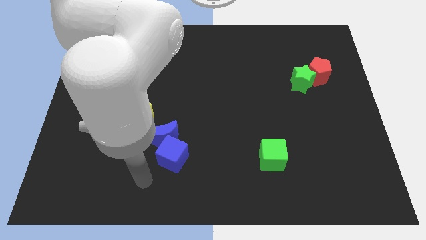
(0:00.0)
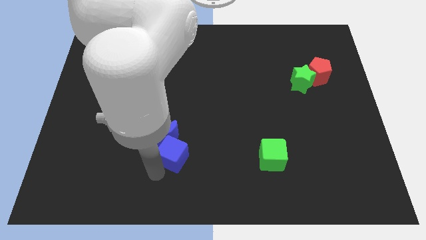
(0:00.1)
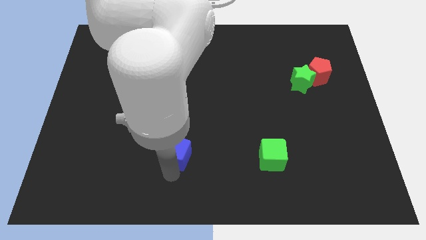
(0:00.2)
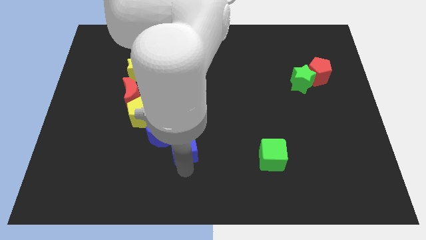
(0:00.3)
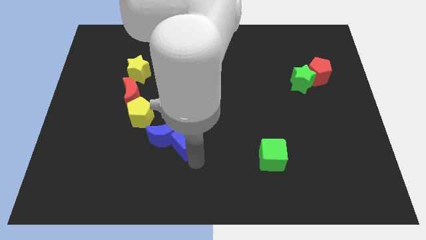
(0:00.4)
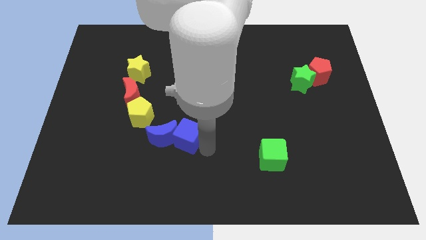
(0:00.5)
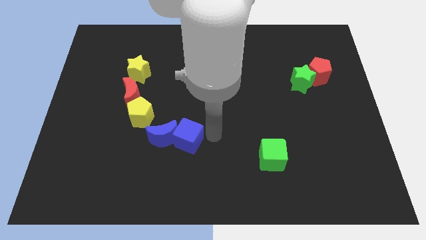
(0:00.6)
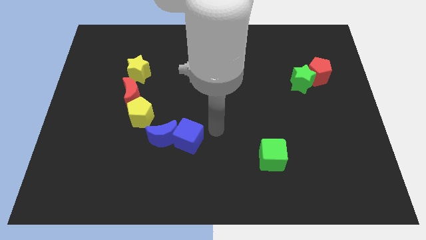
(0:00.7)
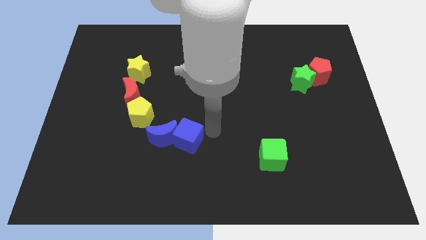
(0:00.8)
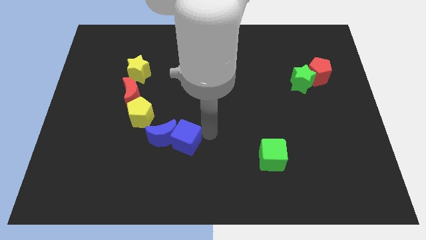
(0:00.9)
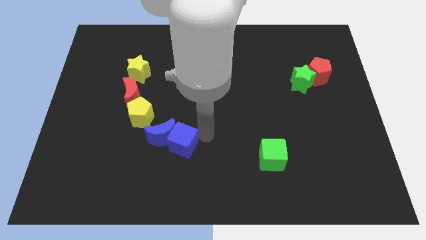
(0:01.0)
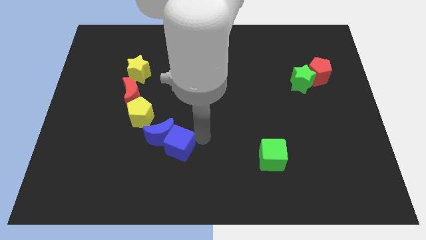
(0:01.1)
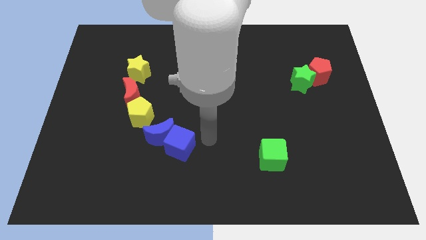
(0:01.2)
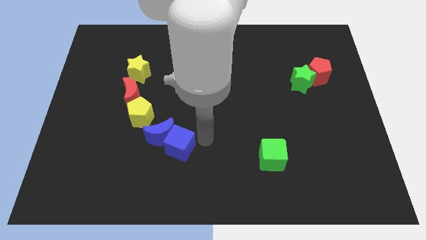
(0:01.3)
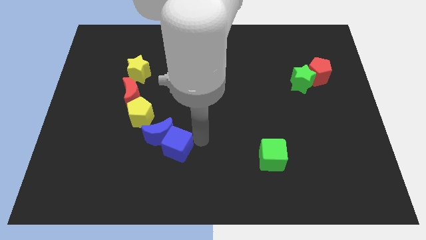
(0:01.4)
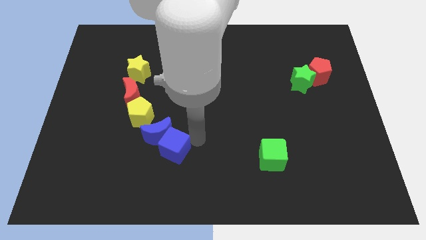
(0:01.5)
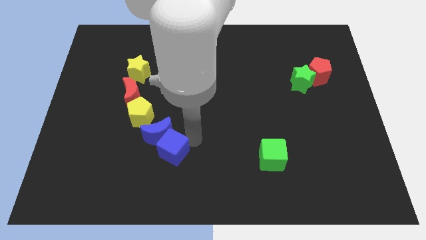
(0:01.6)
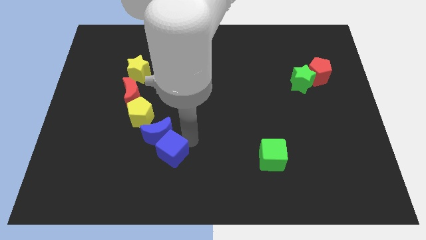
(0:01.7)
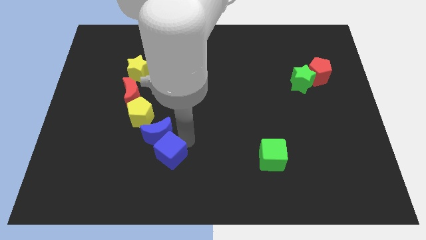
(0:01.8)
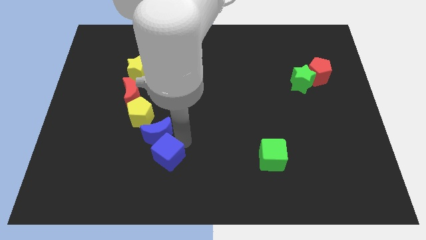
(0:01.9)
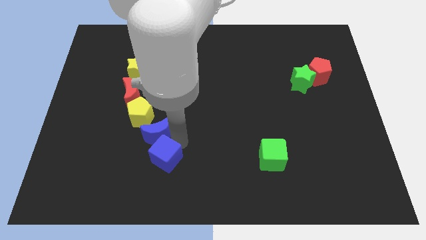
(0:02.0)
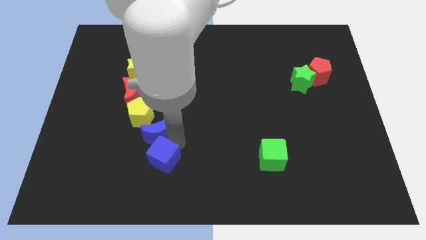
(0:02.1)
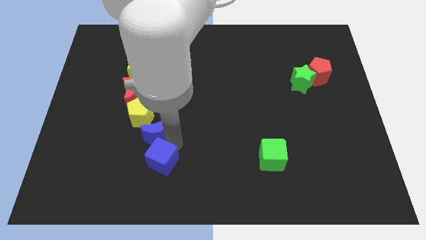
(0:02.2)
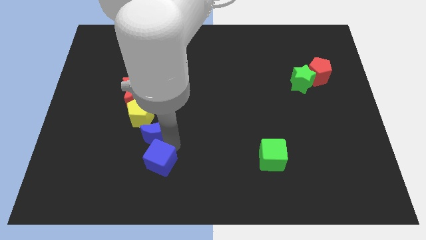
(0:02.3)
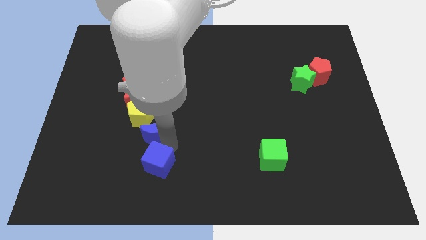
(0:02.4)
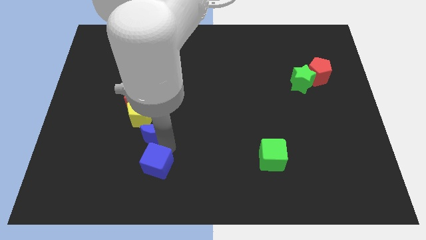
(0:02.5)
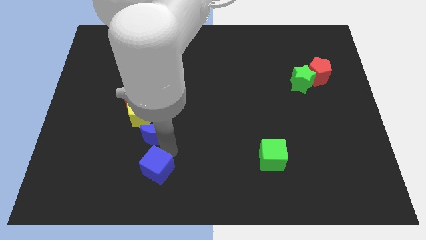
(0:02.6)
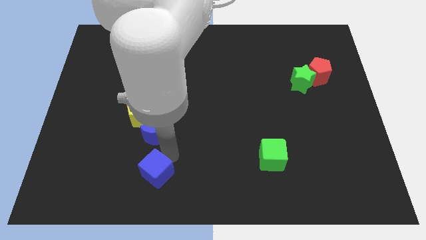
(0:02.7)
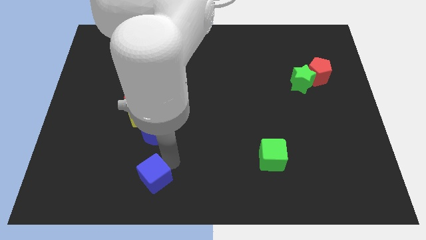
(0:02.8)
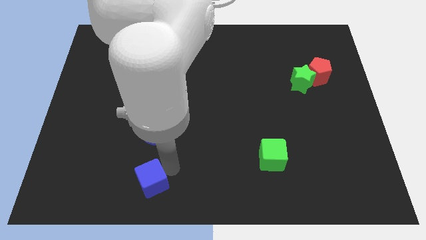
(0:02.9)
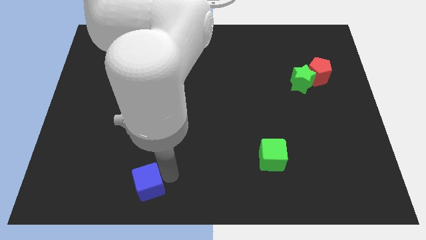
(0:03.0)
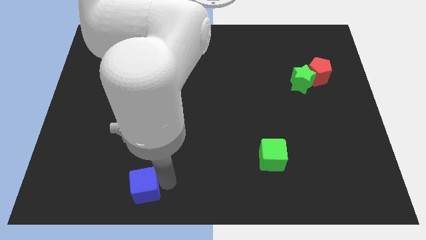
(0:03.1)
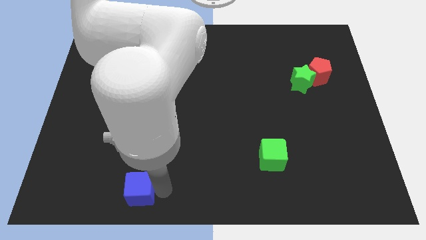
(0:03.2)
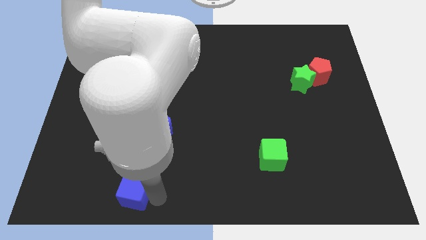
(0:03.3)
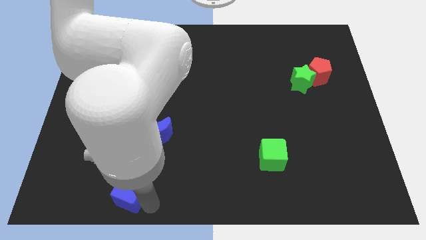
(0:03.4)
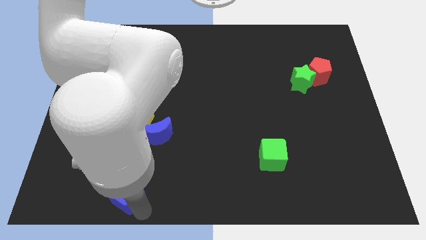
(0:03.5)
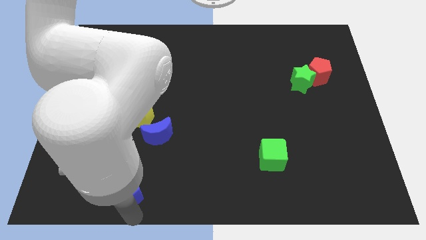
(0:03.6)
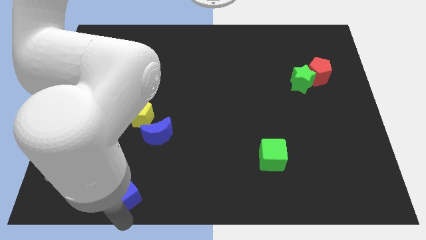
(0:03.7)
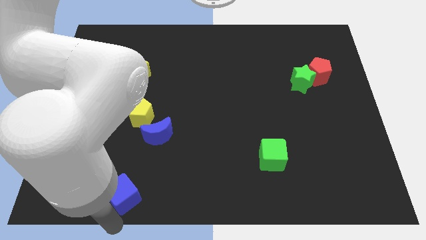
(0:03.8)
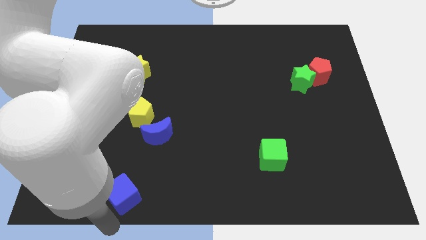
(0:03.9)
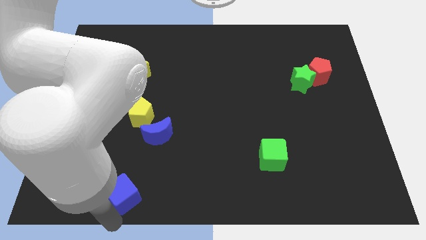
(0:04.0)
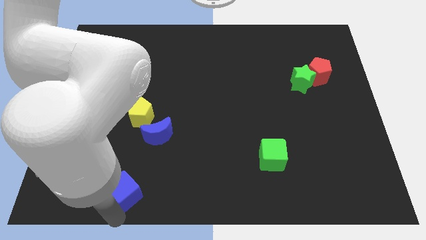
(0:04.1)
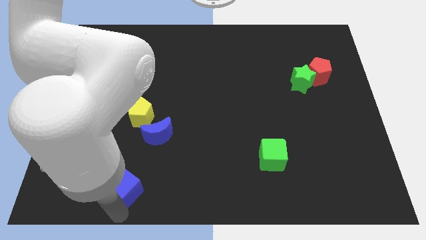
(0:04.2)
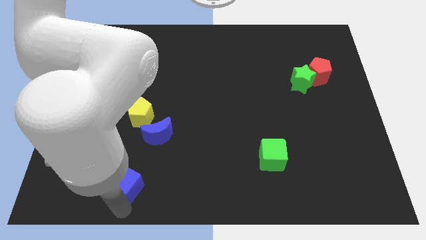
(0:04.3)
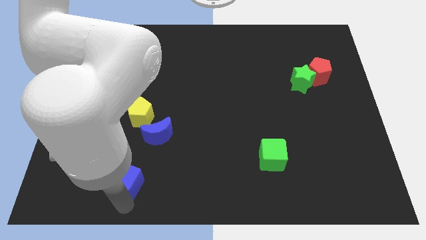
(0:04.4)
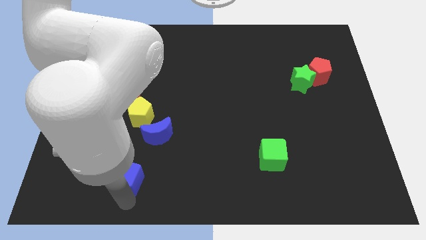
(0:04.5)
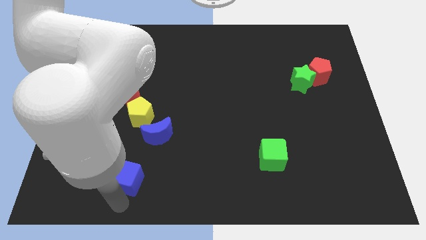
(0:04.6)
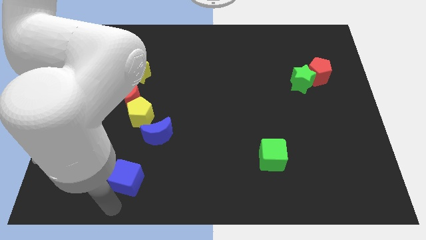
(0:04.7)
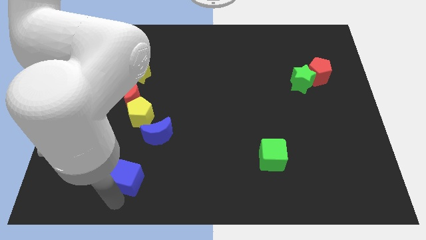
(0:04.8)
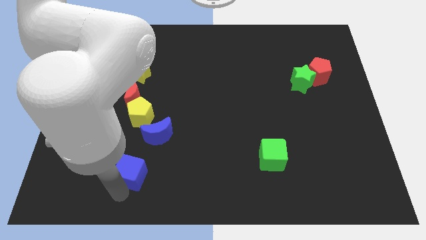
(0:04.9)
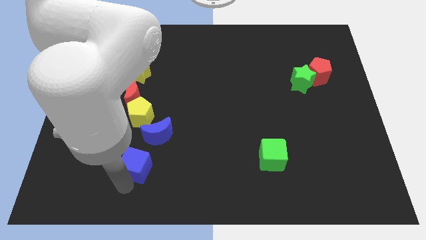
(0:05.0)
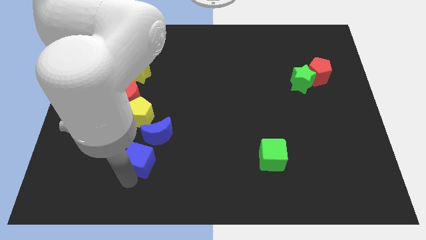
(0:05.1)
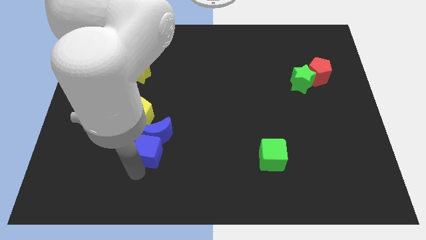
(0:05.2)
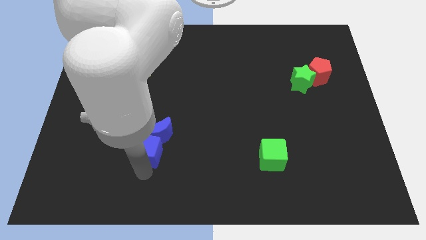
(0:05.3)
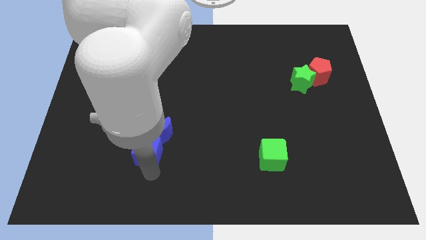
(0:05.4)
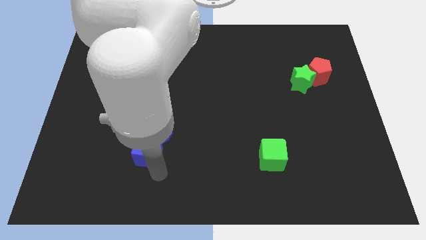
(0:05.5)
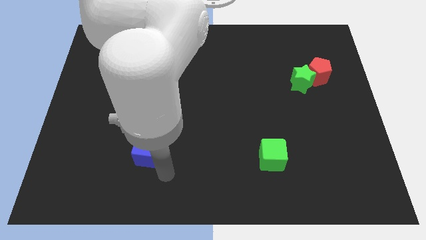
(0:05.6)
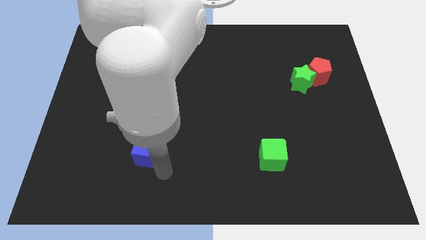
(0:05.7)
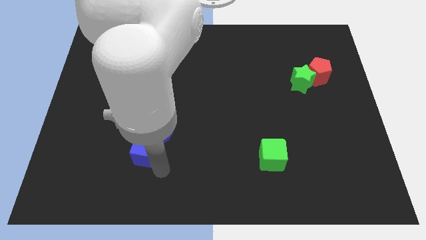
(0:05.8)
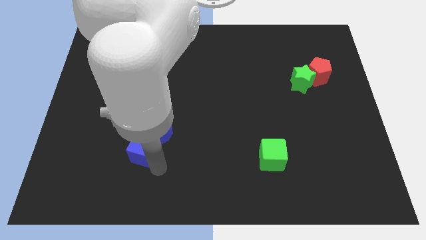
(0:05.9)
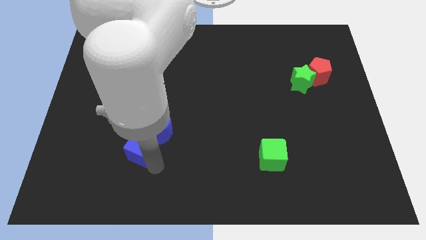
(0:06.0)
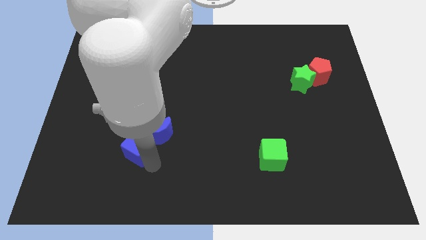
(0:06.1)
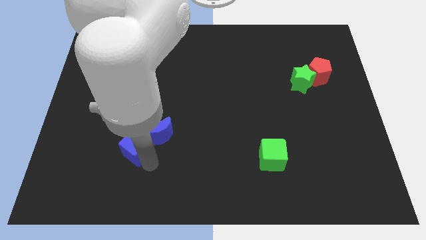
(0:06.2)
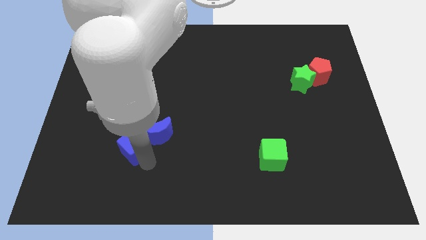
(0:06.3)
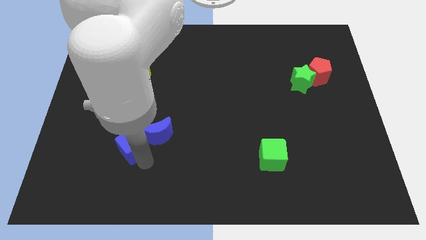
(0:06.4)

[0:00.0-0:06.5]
move the blue cube upwards and left diagonally a bit

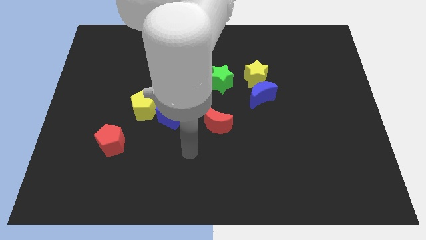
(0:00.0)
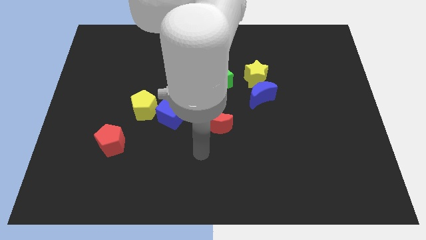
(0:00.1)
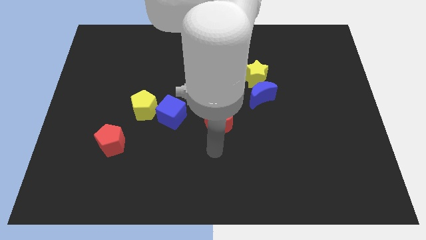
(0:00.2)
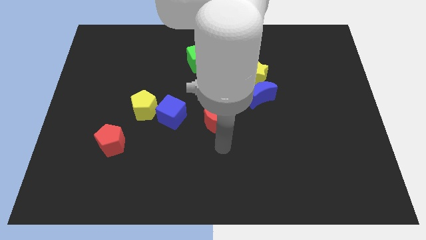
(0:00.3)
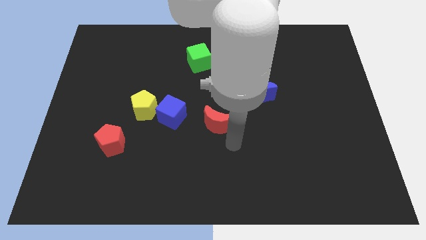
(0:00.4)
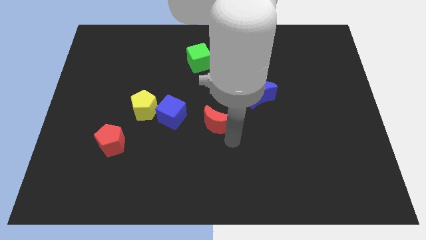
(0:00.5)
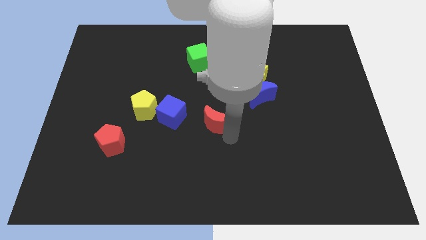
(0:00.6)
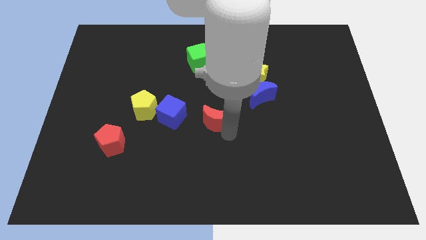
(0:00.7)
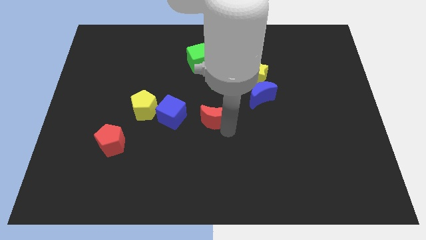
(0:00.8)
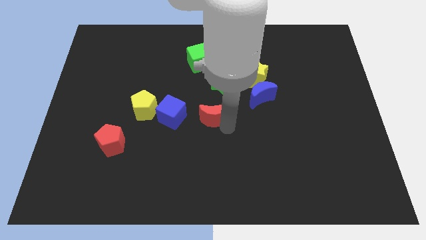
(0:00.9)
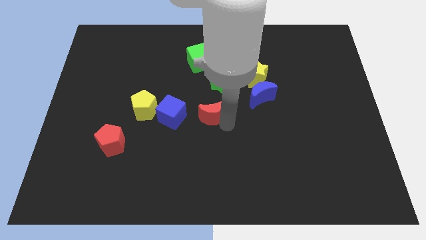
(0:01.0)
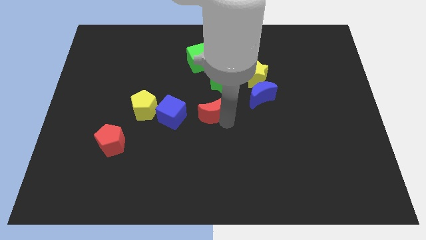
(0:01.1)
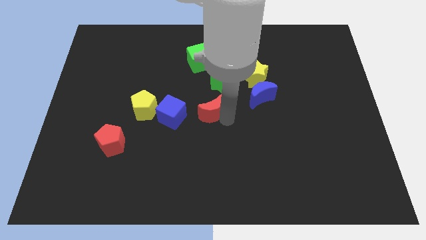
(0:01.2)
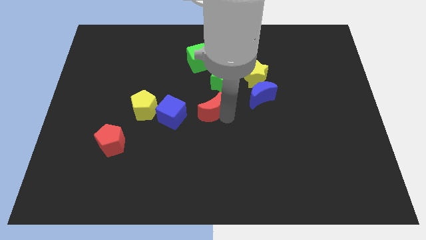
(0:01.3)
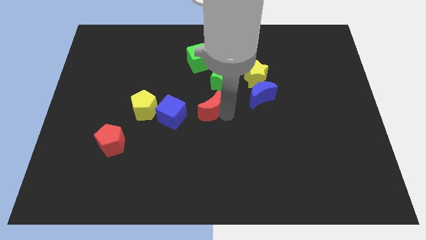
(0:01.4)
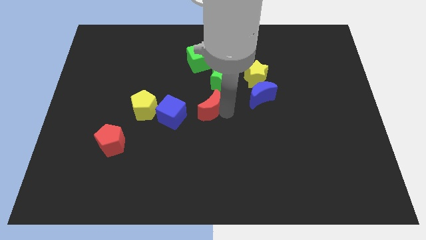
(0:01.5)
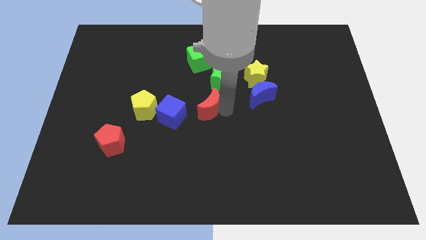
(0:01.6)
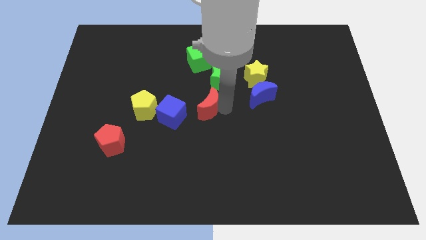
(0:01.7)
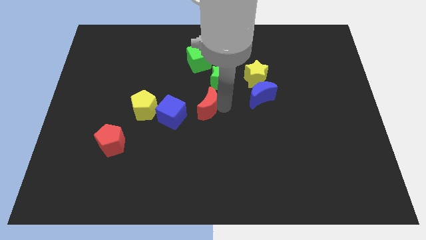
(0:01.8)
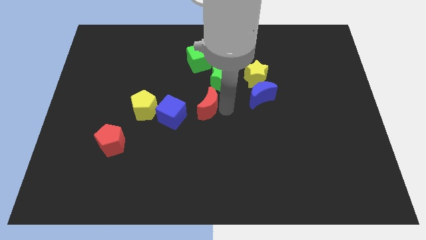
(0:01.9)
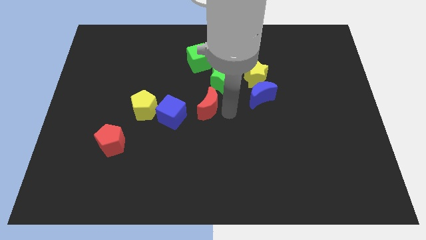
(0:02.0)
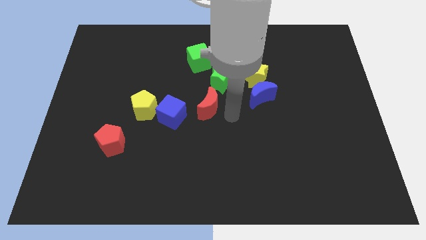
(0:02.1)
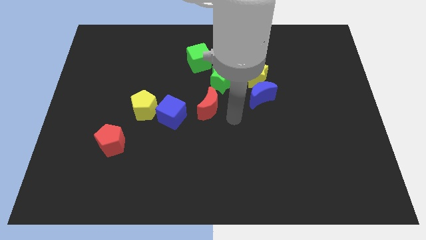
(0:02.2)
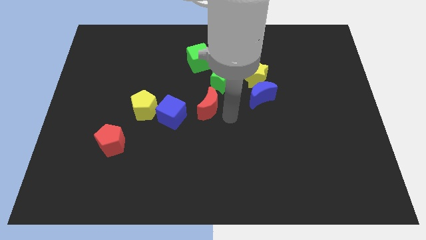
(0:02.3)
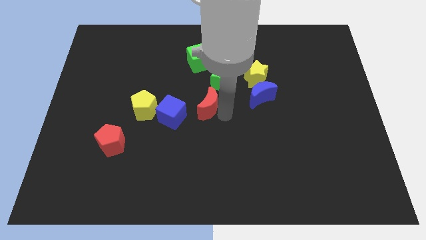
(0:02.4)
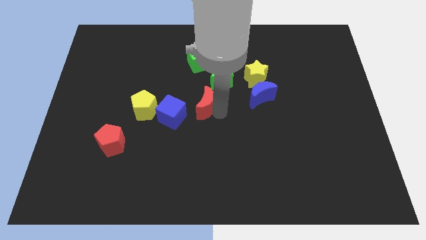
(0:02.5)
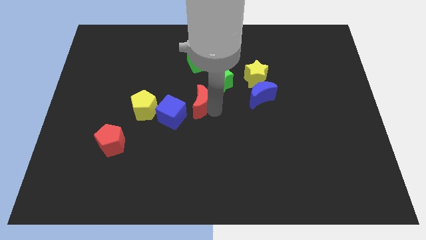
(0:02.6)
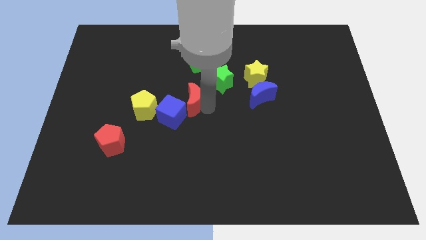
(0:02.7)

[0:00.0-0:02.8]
move the red moon up and to the left diagonally slightly
